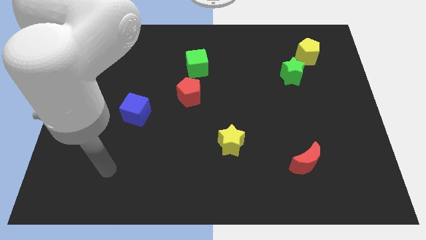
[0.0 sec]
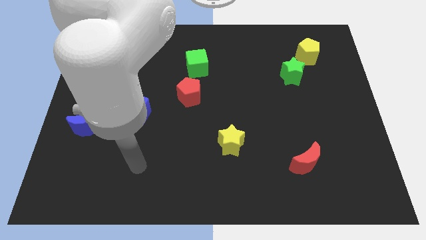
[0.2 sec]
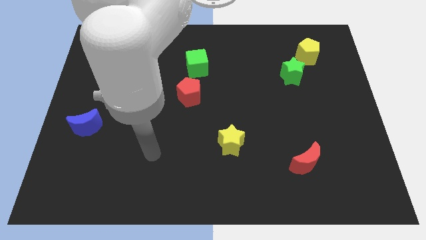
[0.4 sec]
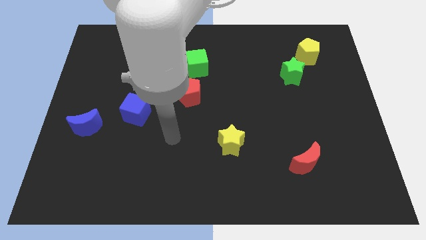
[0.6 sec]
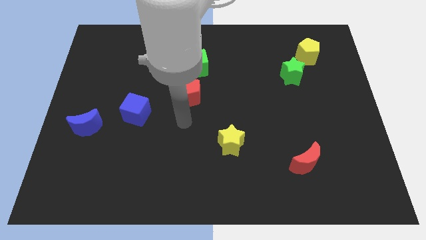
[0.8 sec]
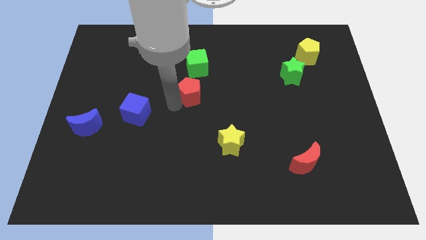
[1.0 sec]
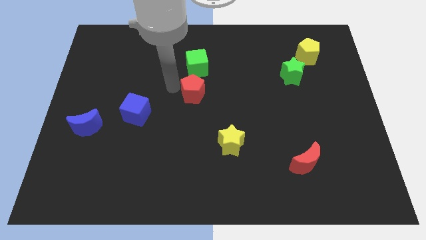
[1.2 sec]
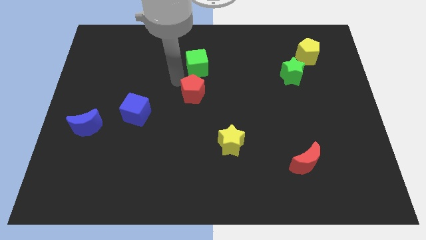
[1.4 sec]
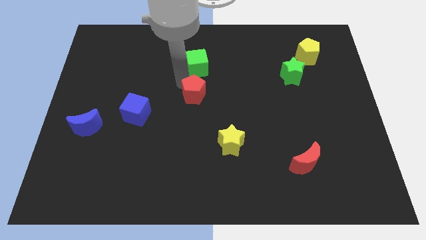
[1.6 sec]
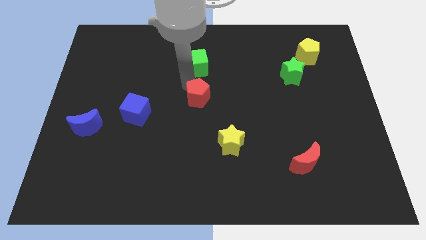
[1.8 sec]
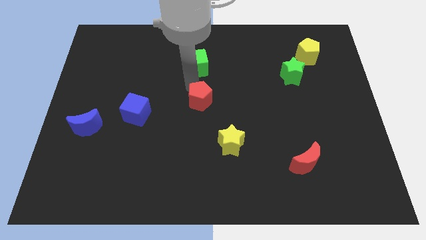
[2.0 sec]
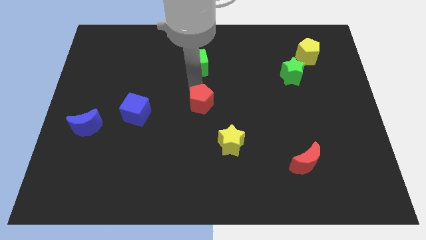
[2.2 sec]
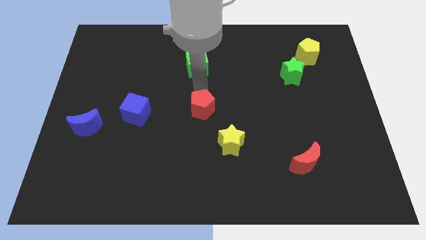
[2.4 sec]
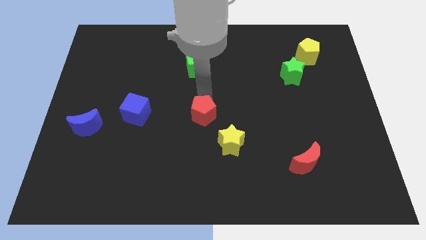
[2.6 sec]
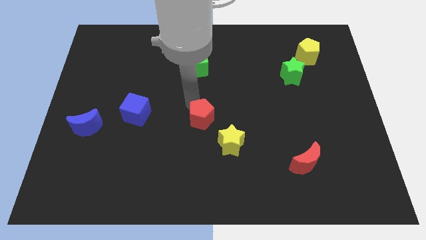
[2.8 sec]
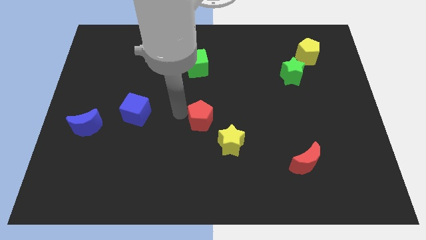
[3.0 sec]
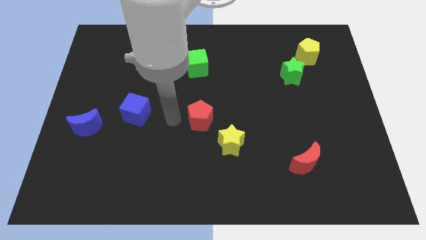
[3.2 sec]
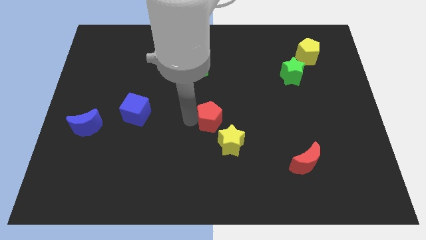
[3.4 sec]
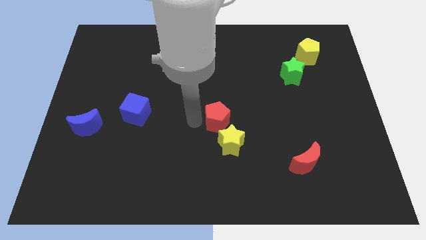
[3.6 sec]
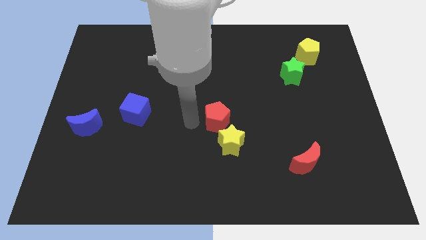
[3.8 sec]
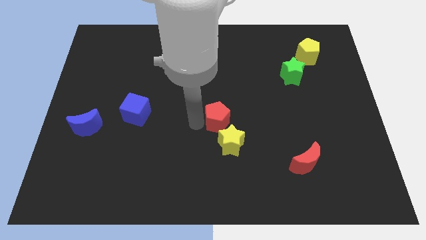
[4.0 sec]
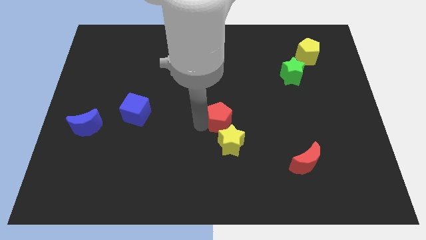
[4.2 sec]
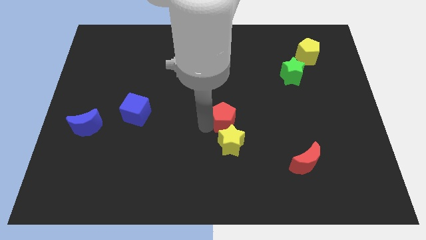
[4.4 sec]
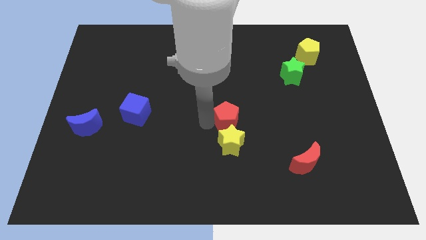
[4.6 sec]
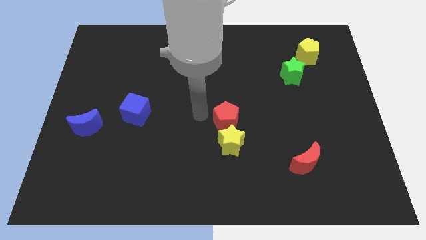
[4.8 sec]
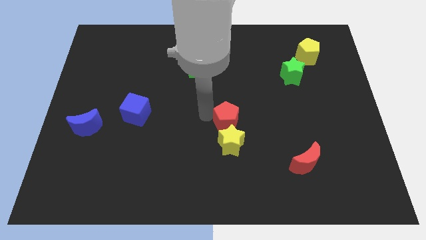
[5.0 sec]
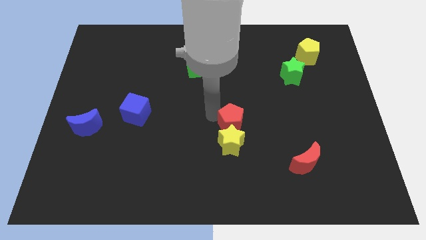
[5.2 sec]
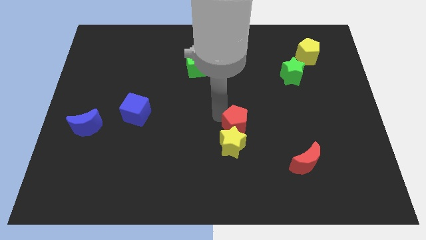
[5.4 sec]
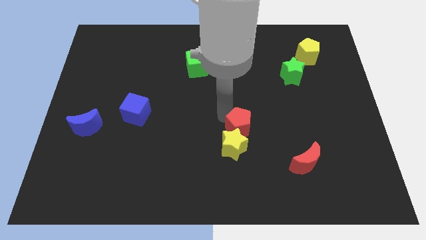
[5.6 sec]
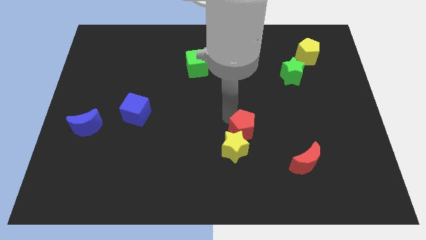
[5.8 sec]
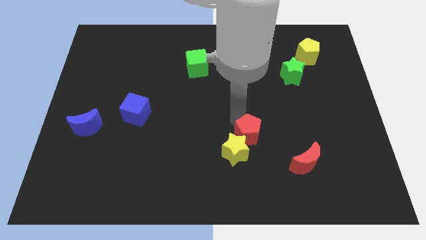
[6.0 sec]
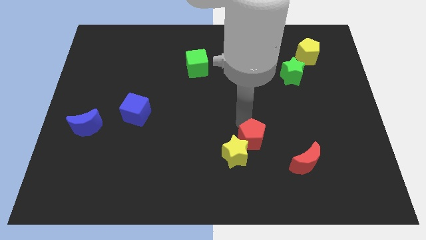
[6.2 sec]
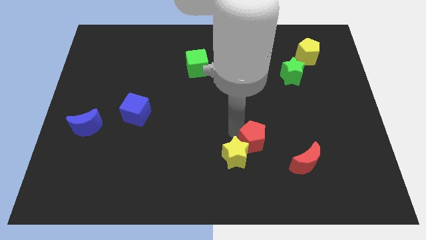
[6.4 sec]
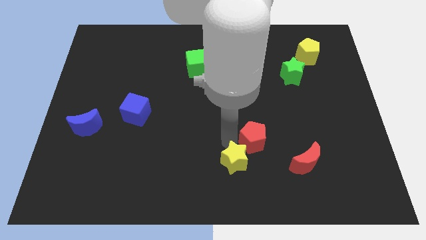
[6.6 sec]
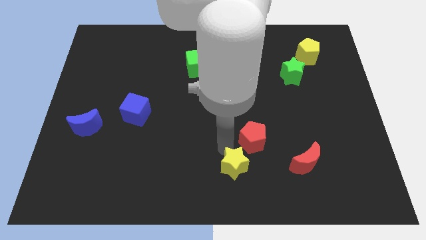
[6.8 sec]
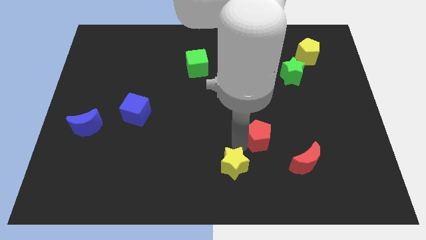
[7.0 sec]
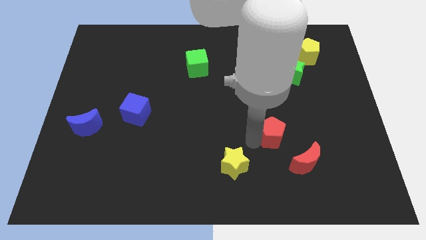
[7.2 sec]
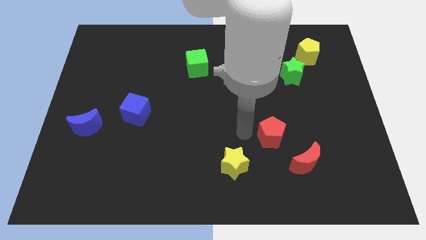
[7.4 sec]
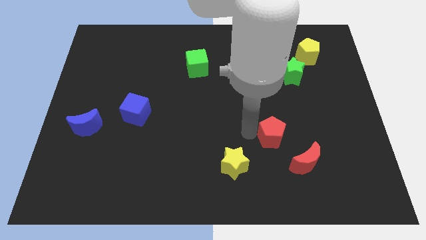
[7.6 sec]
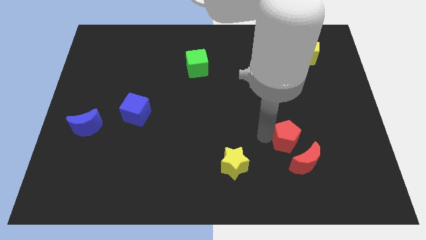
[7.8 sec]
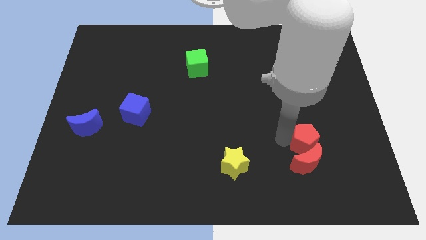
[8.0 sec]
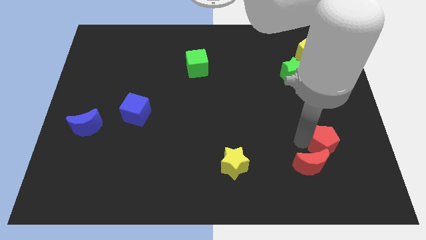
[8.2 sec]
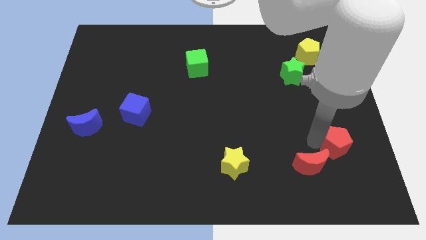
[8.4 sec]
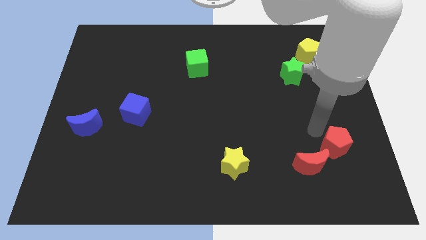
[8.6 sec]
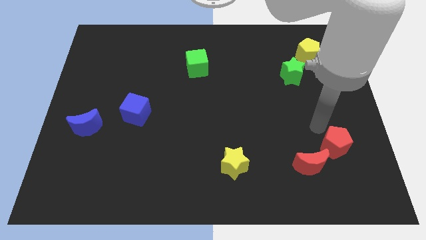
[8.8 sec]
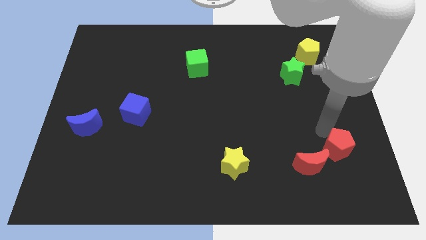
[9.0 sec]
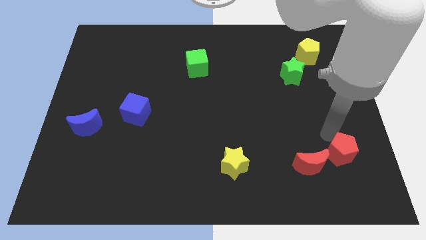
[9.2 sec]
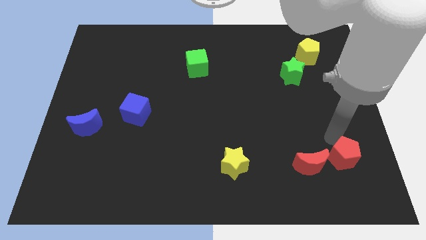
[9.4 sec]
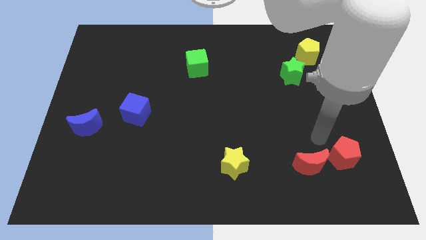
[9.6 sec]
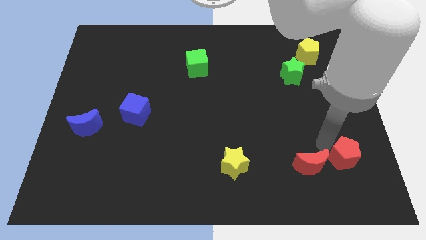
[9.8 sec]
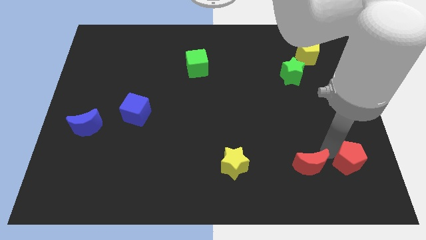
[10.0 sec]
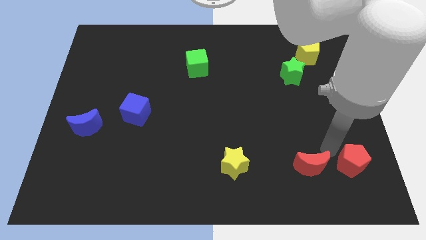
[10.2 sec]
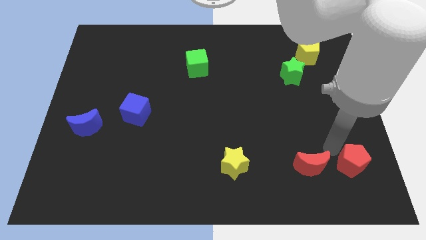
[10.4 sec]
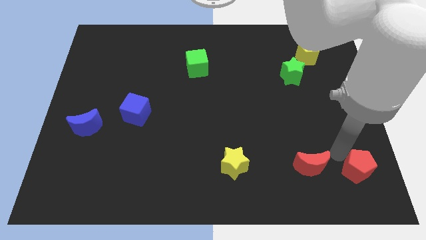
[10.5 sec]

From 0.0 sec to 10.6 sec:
push the red pentagon to the bottom right corner

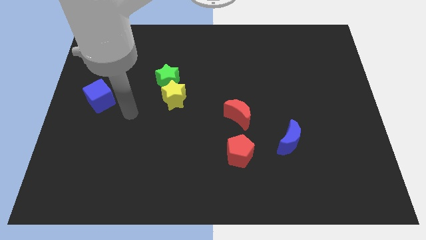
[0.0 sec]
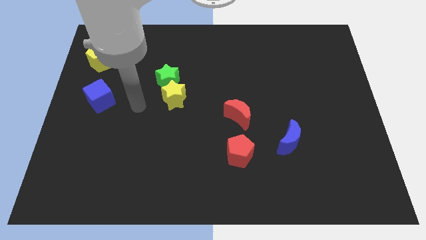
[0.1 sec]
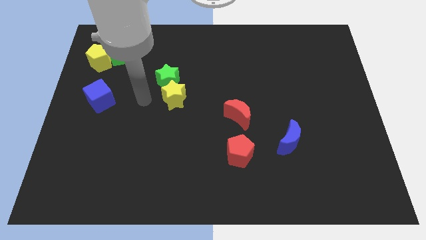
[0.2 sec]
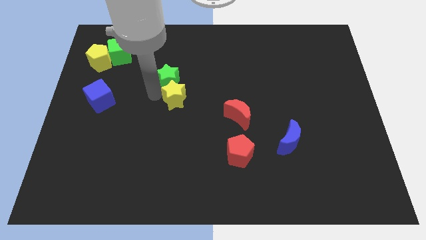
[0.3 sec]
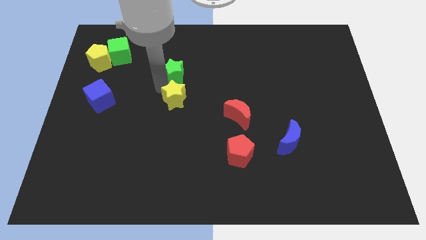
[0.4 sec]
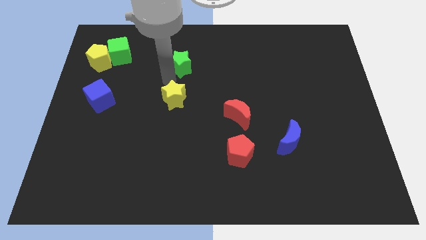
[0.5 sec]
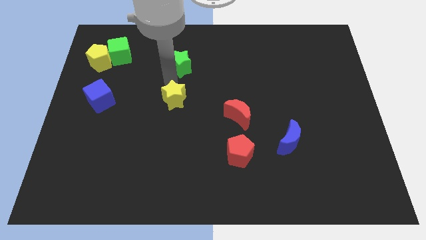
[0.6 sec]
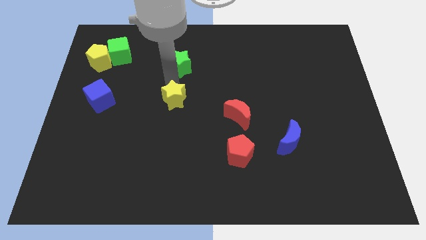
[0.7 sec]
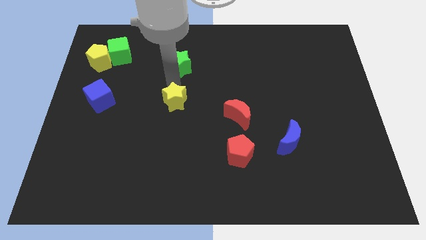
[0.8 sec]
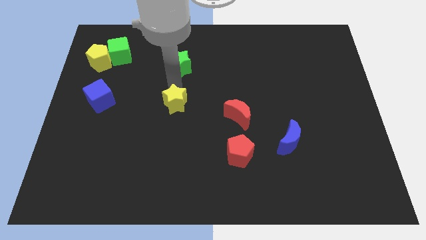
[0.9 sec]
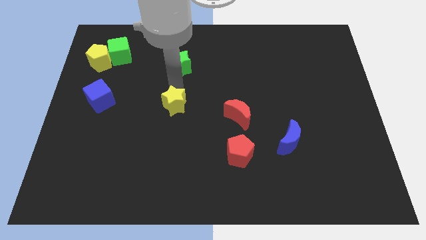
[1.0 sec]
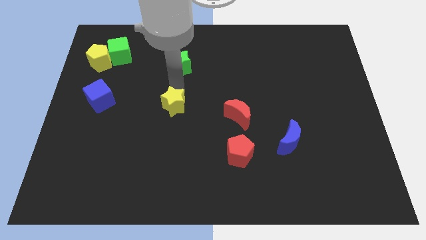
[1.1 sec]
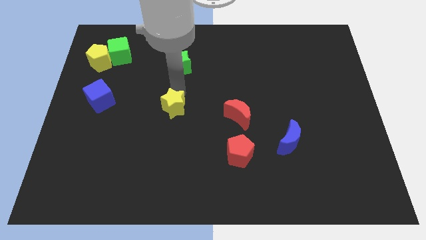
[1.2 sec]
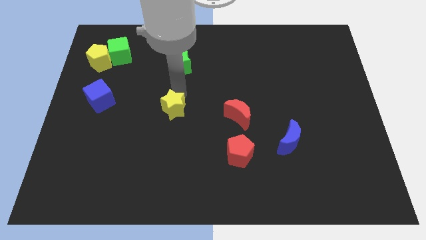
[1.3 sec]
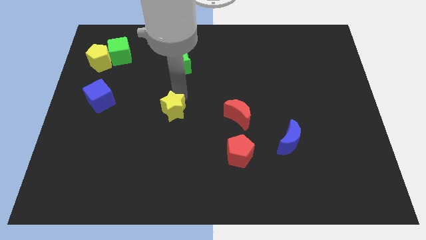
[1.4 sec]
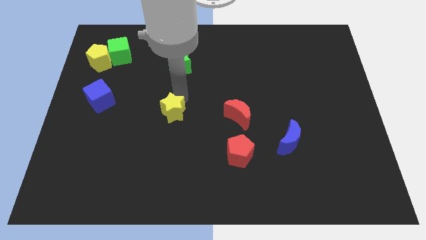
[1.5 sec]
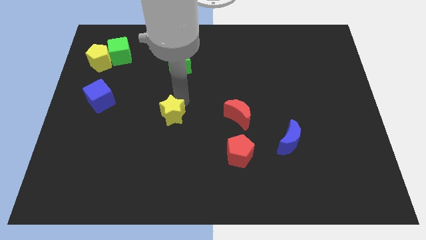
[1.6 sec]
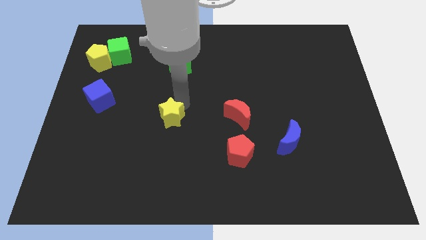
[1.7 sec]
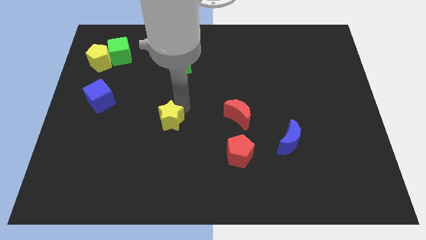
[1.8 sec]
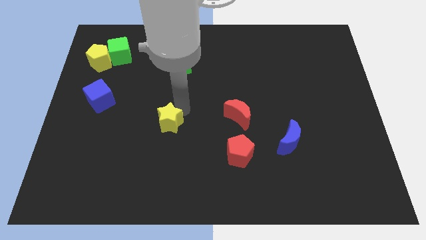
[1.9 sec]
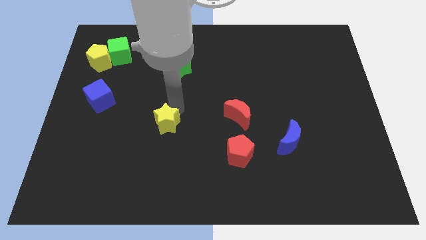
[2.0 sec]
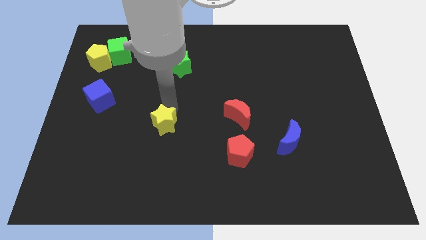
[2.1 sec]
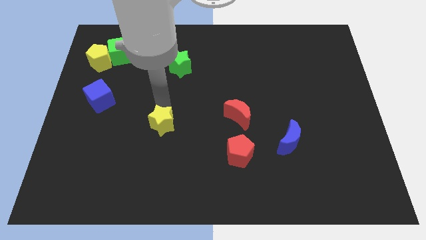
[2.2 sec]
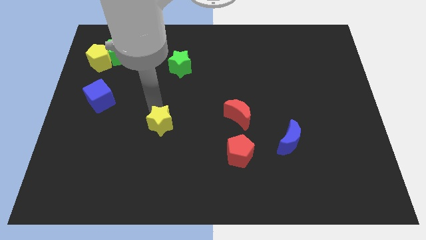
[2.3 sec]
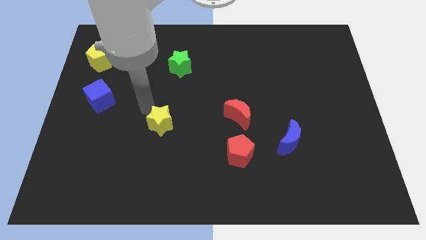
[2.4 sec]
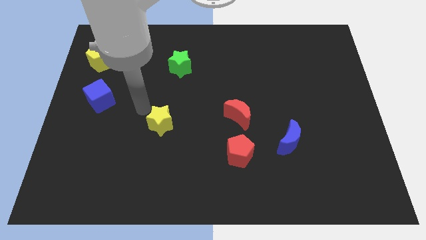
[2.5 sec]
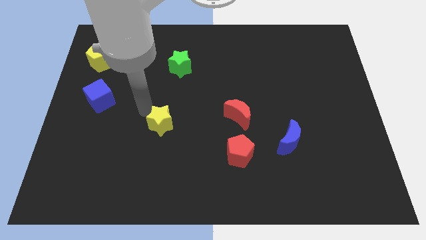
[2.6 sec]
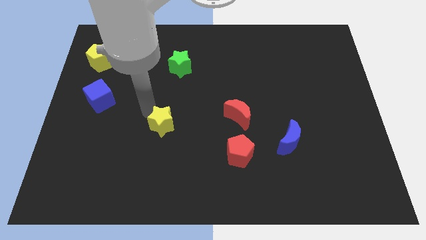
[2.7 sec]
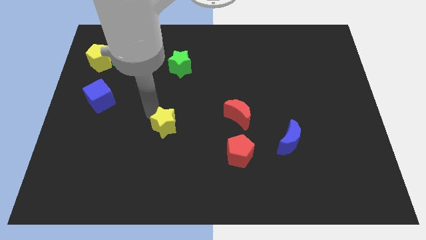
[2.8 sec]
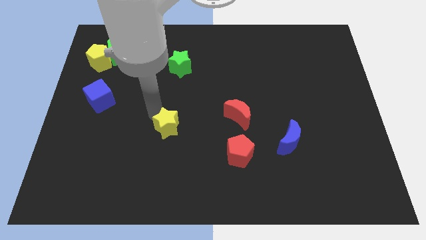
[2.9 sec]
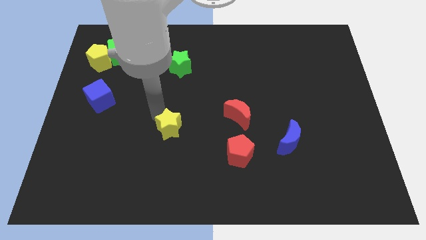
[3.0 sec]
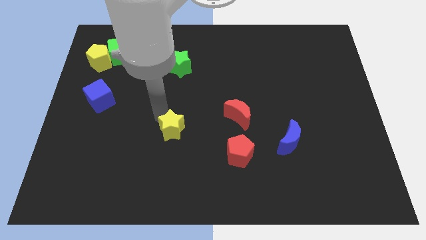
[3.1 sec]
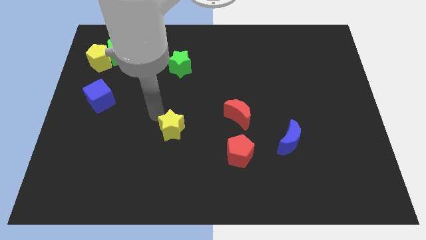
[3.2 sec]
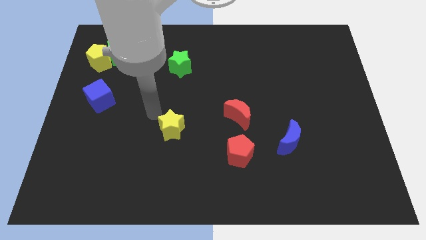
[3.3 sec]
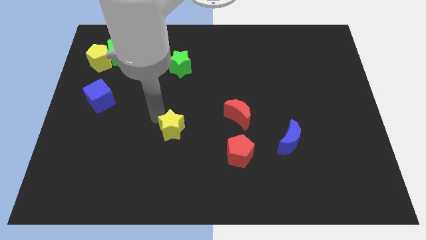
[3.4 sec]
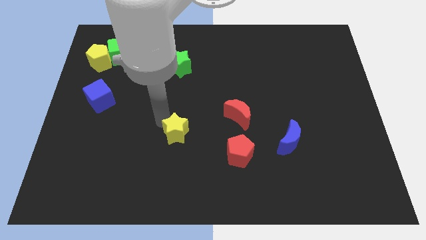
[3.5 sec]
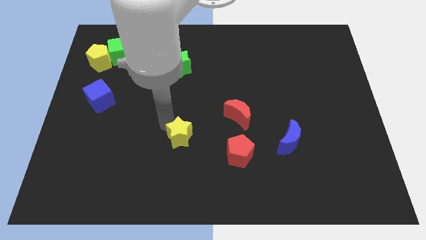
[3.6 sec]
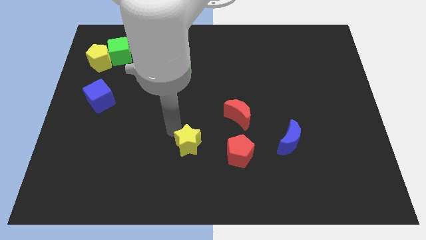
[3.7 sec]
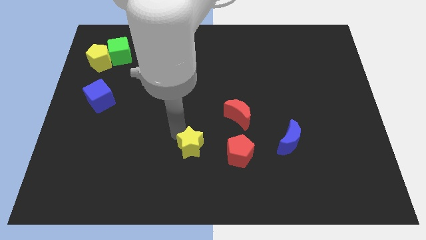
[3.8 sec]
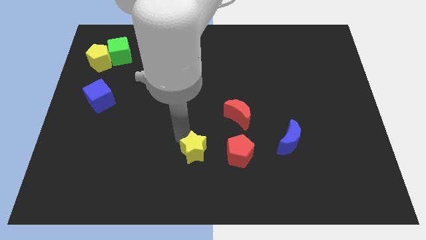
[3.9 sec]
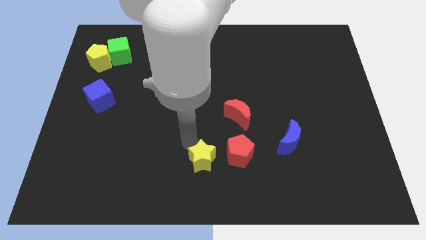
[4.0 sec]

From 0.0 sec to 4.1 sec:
slide the yellow star to the bottom side
